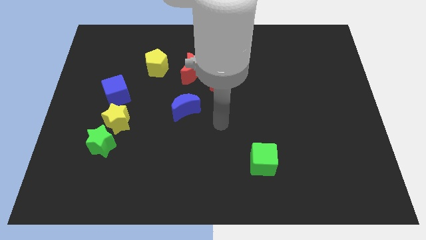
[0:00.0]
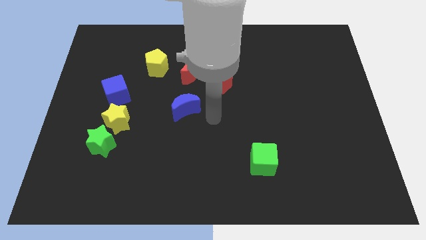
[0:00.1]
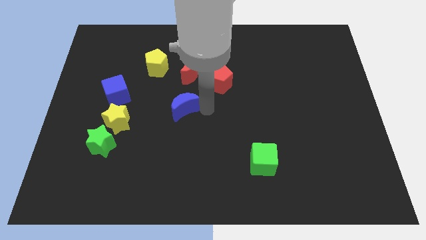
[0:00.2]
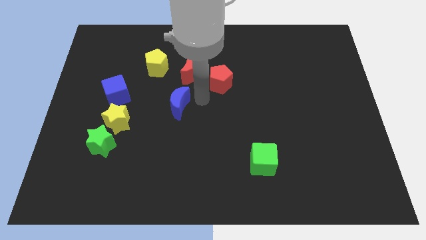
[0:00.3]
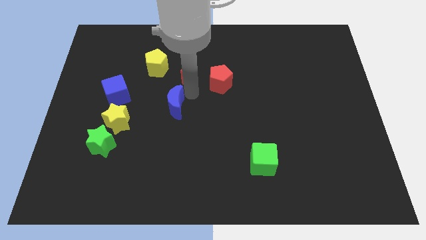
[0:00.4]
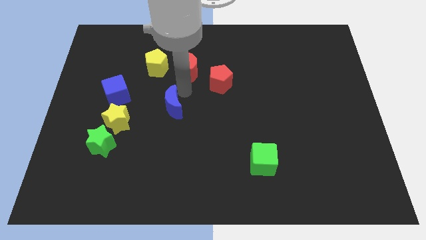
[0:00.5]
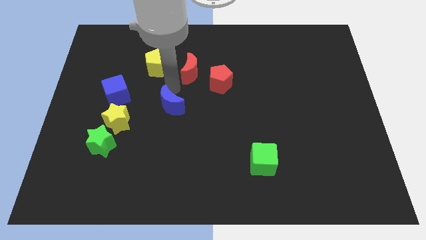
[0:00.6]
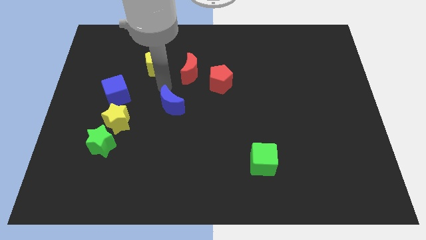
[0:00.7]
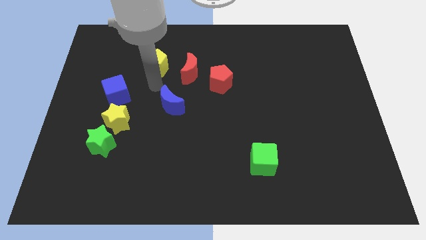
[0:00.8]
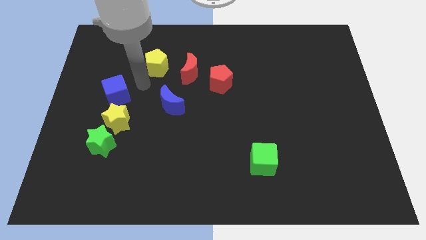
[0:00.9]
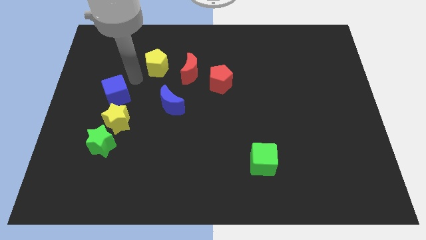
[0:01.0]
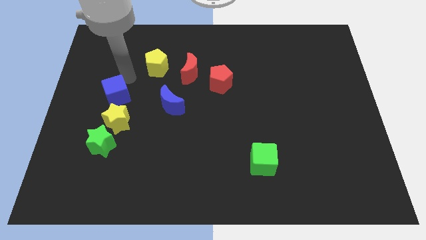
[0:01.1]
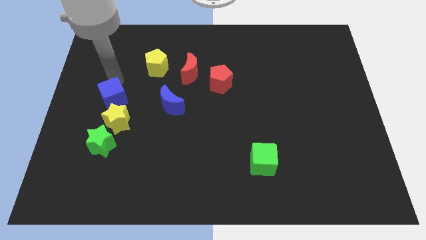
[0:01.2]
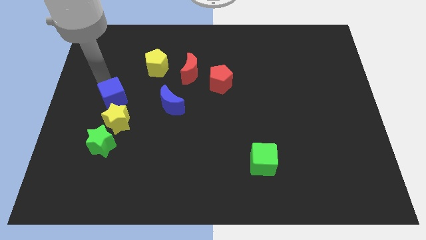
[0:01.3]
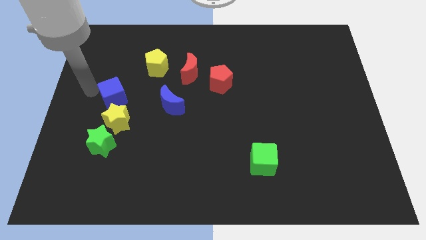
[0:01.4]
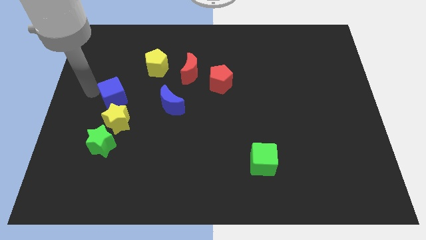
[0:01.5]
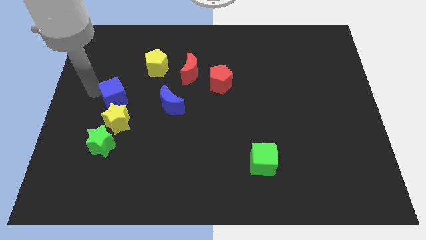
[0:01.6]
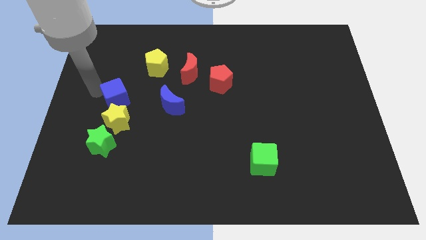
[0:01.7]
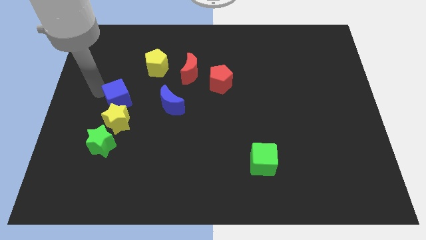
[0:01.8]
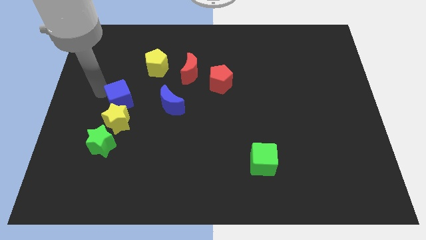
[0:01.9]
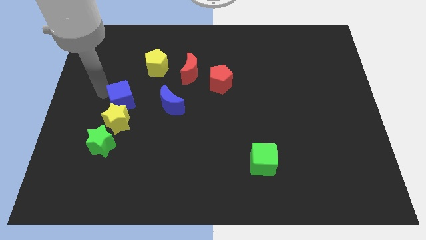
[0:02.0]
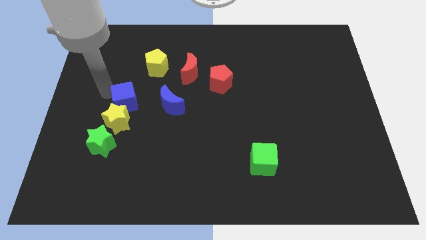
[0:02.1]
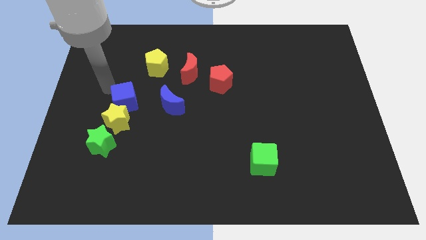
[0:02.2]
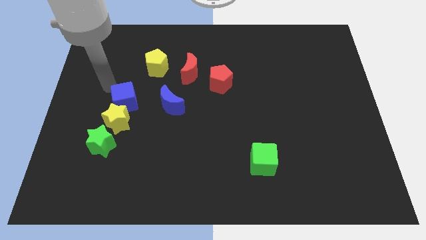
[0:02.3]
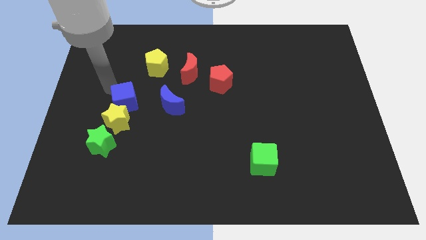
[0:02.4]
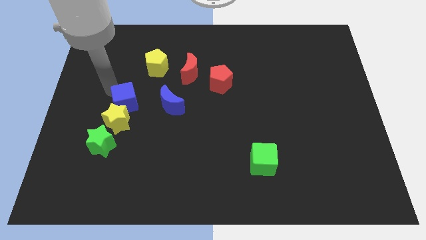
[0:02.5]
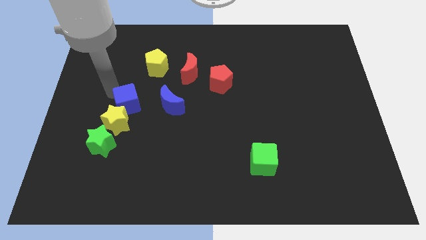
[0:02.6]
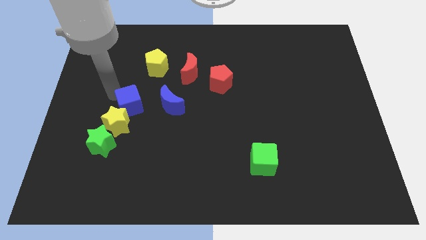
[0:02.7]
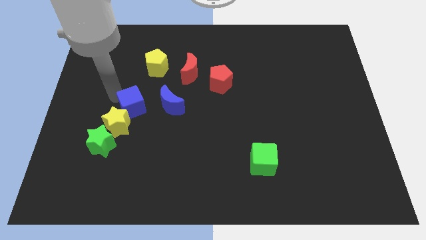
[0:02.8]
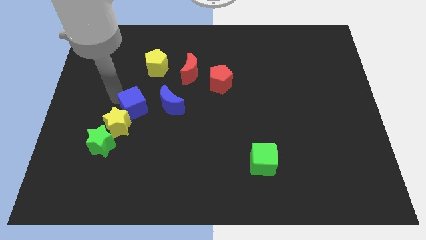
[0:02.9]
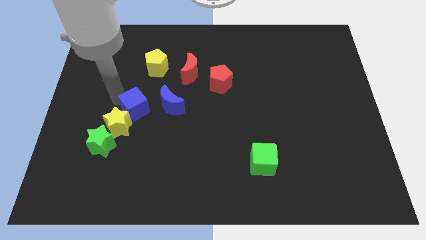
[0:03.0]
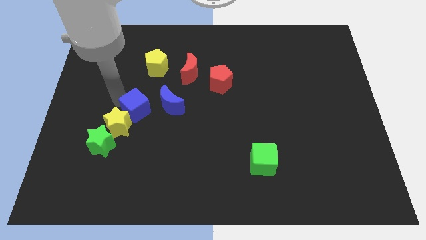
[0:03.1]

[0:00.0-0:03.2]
push the blue cube somewhat downwards and to the right

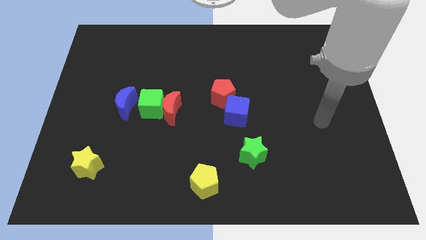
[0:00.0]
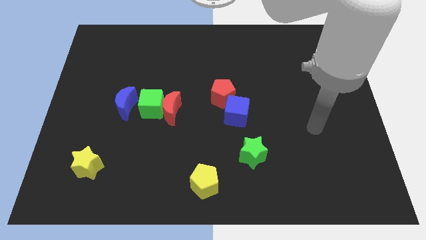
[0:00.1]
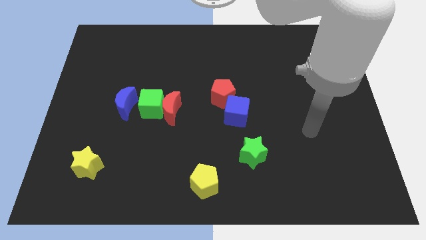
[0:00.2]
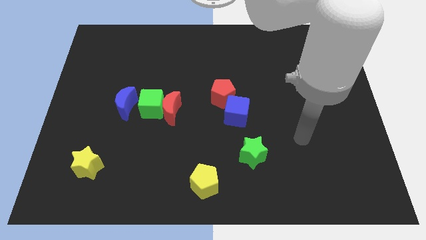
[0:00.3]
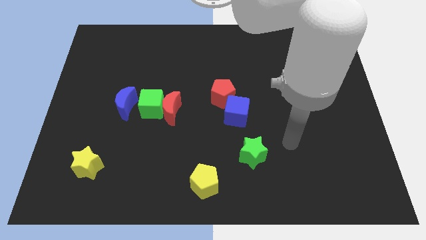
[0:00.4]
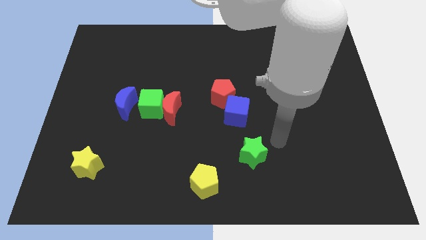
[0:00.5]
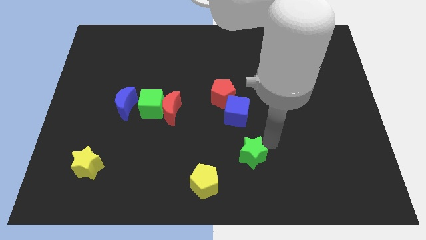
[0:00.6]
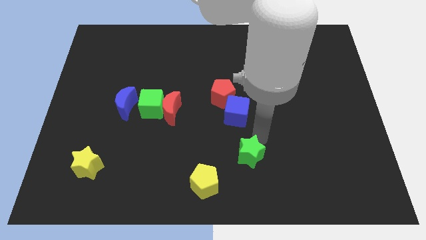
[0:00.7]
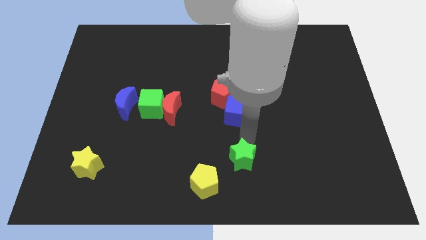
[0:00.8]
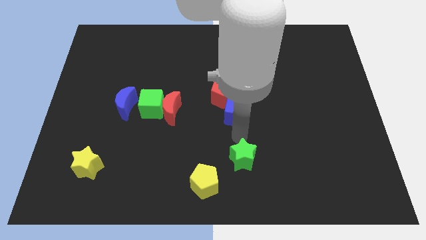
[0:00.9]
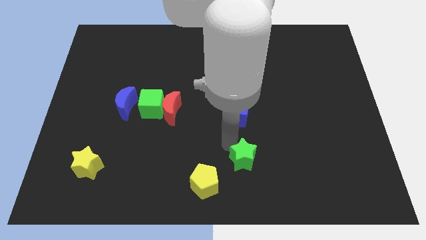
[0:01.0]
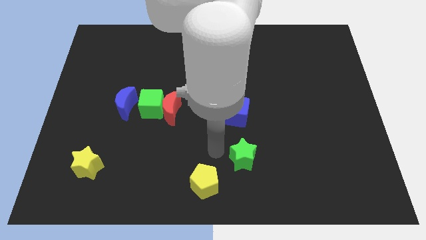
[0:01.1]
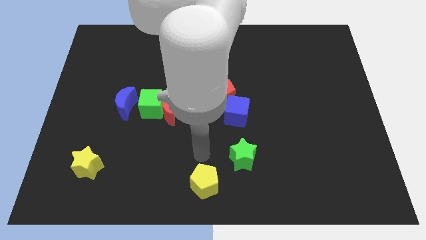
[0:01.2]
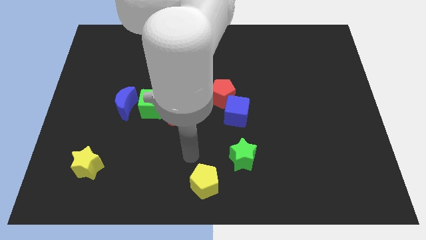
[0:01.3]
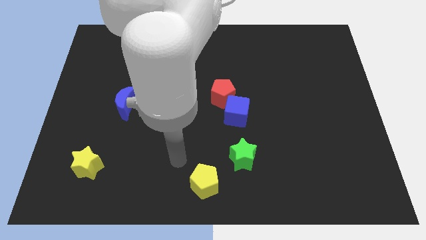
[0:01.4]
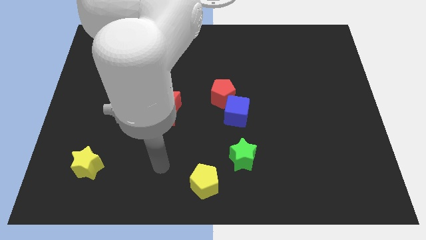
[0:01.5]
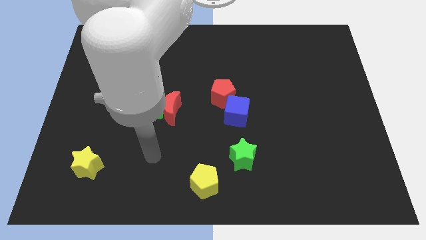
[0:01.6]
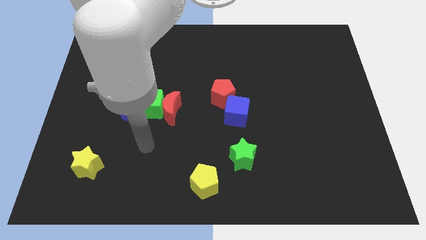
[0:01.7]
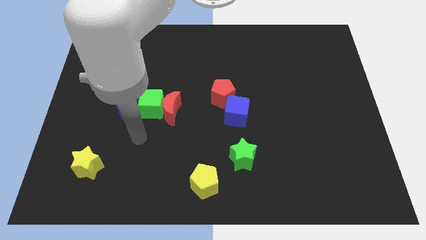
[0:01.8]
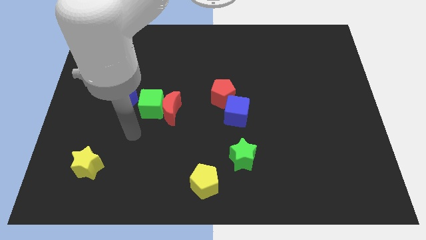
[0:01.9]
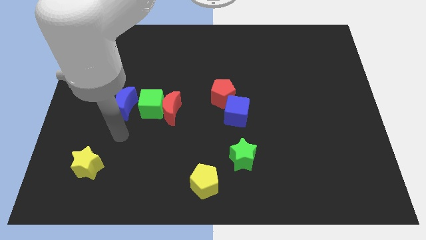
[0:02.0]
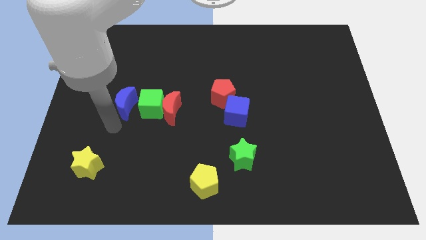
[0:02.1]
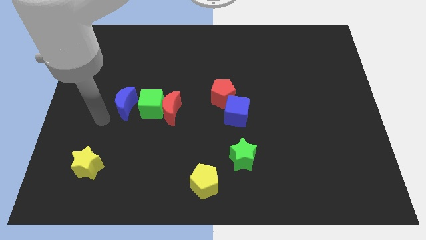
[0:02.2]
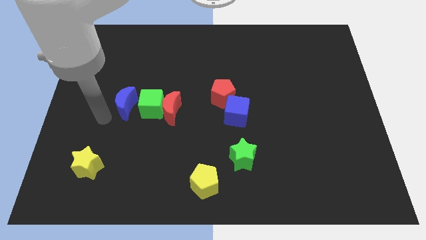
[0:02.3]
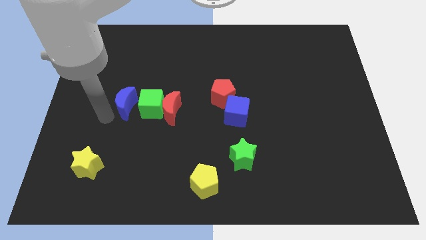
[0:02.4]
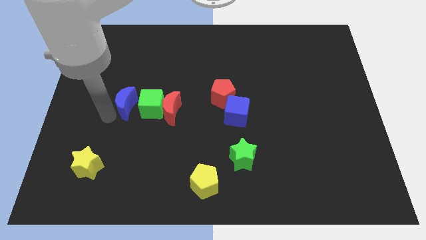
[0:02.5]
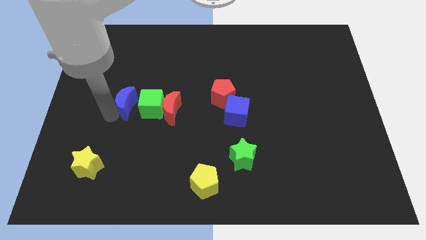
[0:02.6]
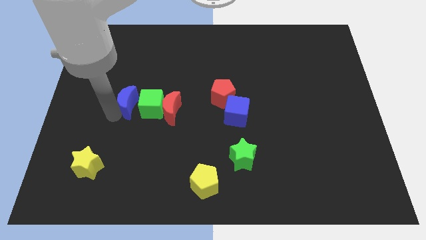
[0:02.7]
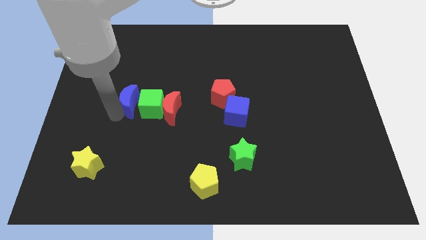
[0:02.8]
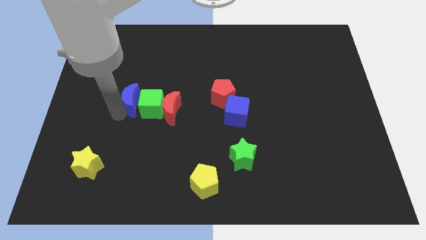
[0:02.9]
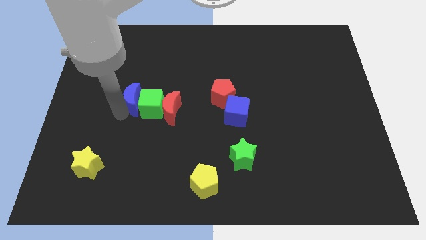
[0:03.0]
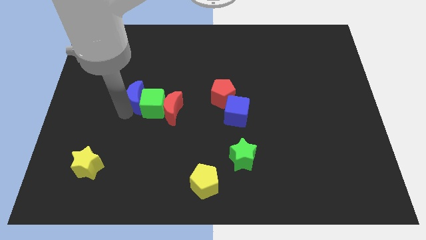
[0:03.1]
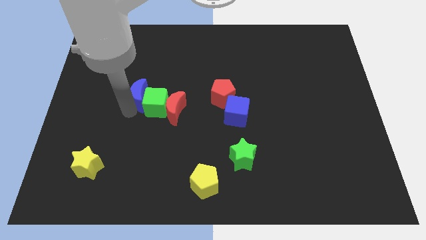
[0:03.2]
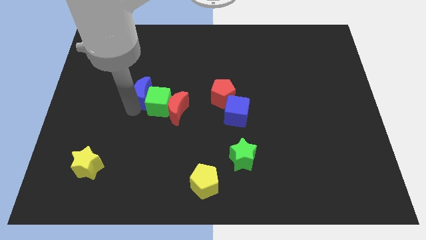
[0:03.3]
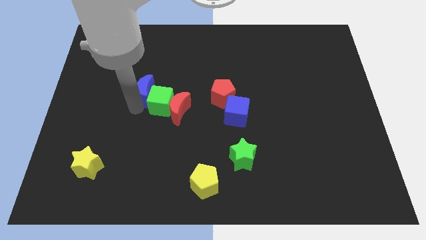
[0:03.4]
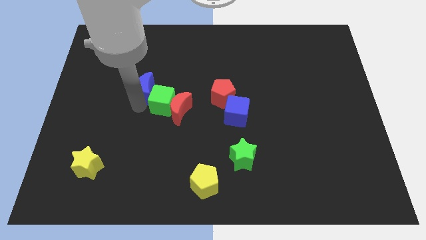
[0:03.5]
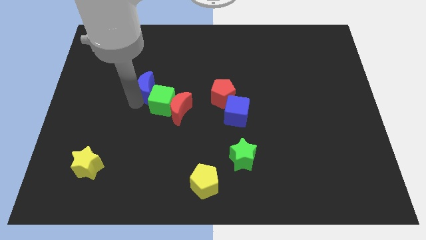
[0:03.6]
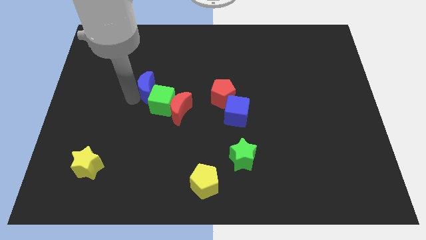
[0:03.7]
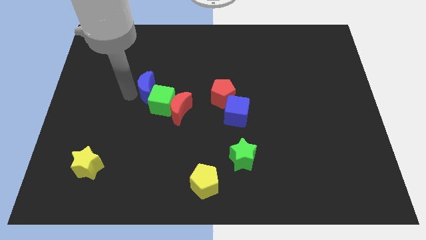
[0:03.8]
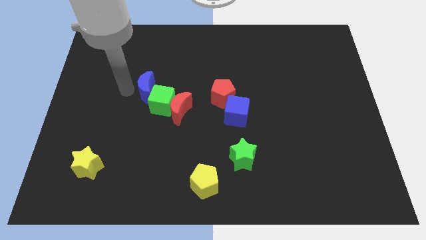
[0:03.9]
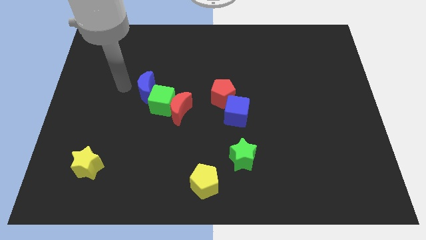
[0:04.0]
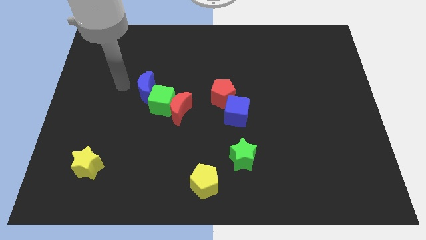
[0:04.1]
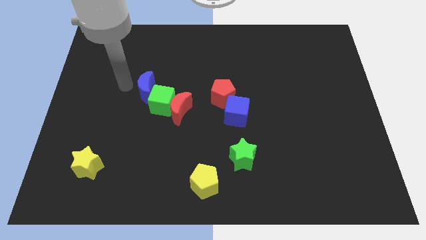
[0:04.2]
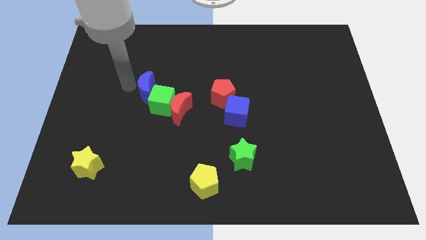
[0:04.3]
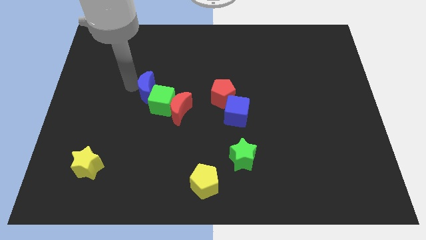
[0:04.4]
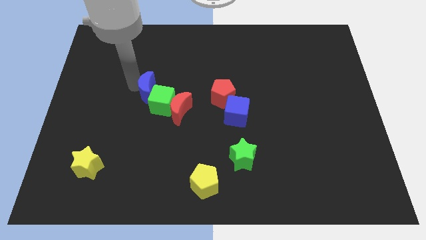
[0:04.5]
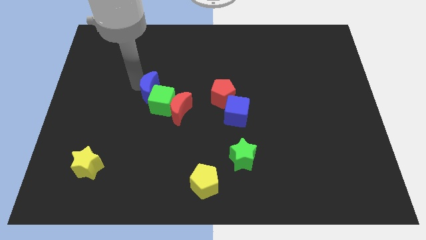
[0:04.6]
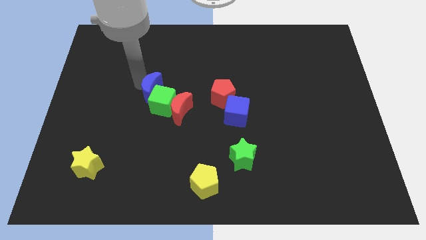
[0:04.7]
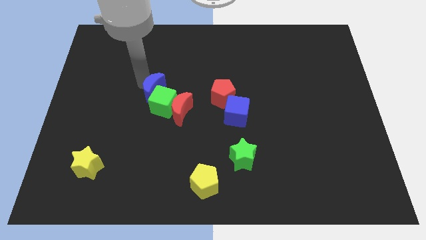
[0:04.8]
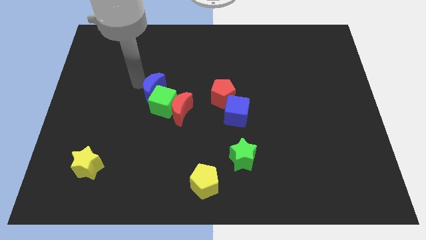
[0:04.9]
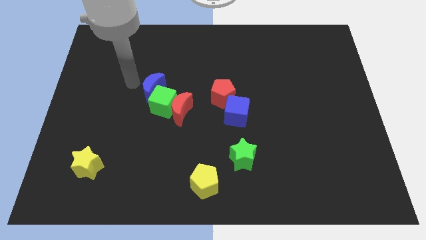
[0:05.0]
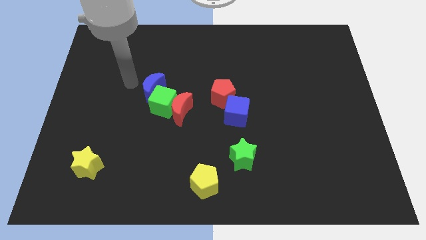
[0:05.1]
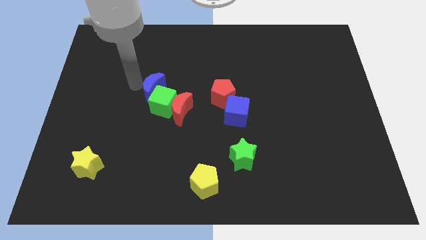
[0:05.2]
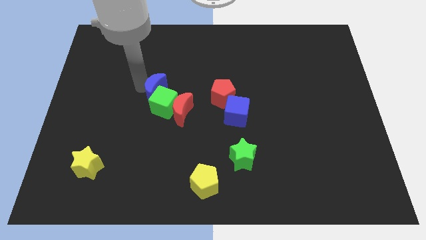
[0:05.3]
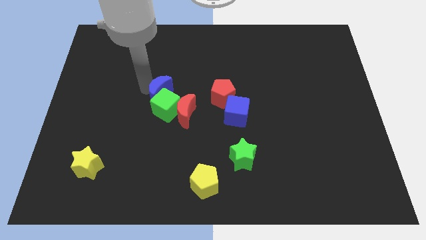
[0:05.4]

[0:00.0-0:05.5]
move the blue moon somewhat to the right
